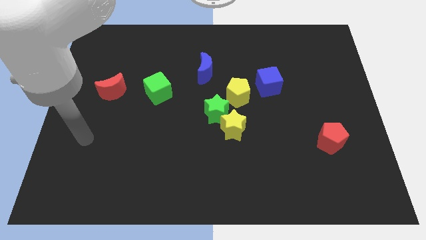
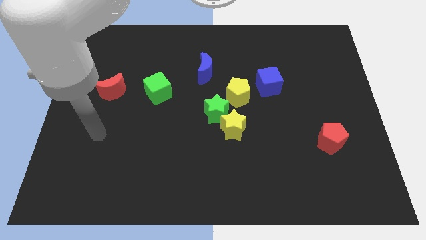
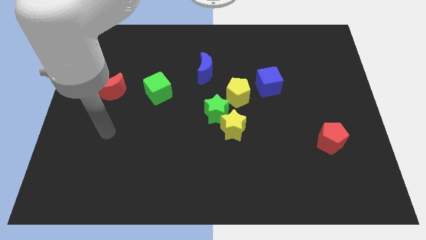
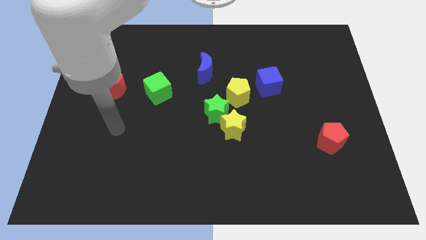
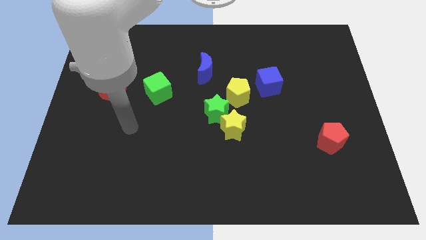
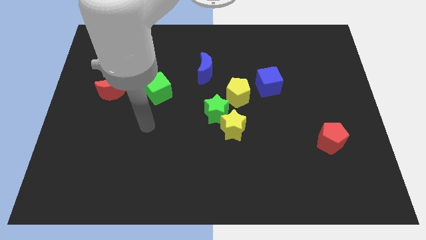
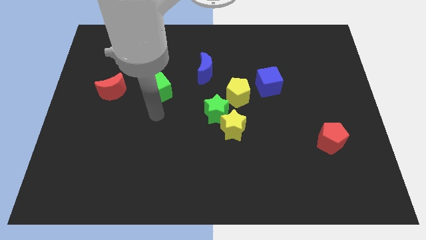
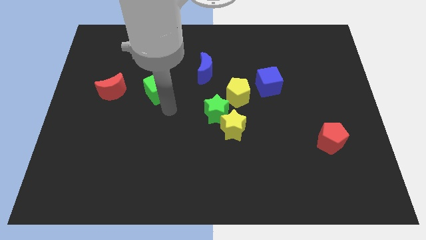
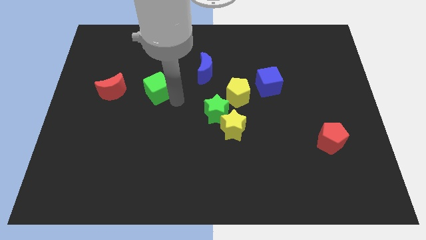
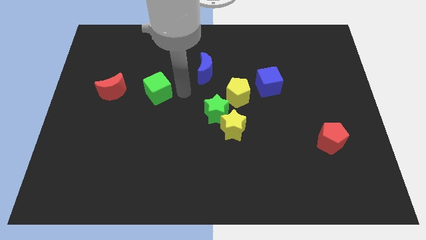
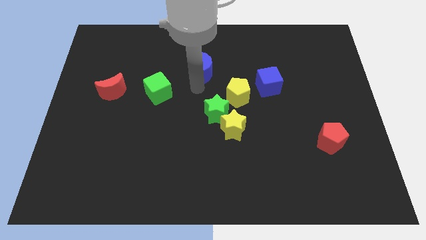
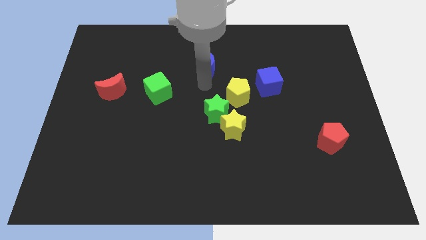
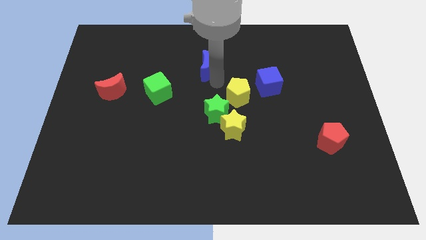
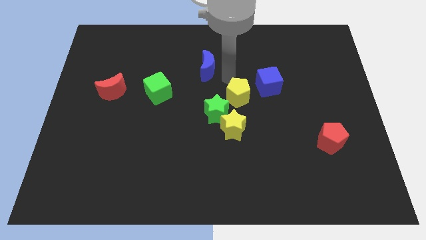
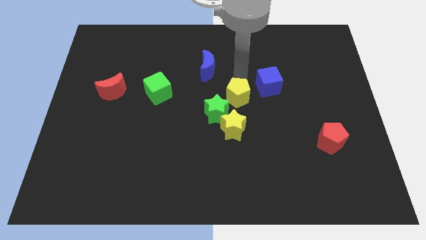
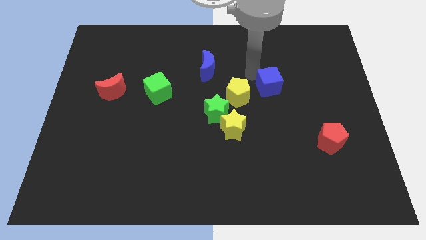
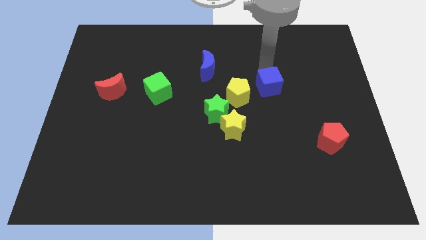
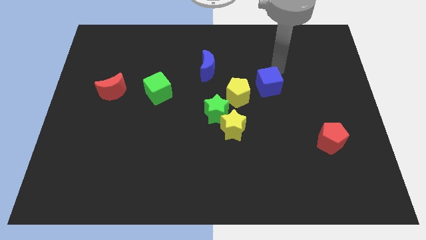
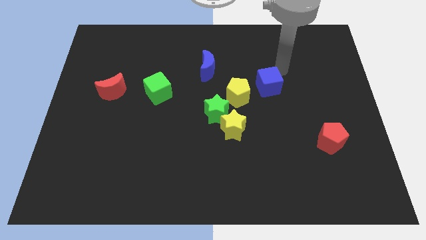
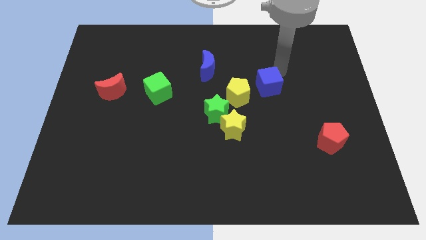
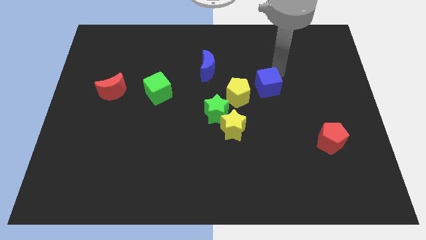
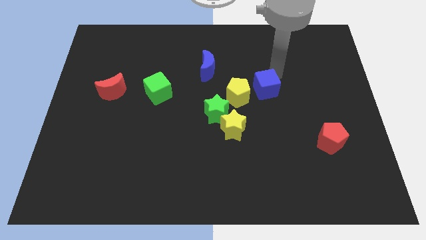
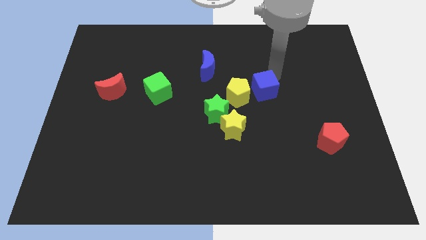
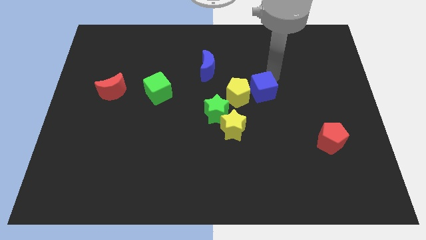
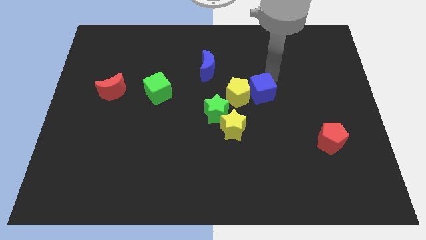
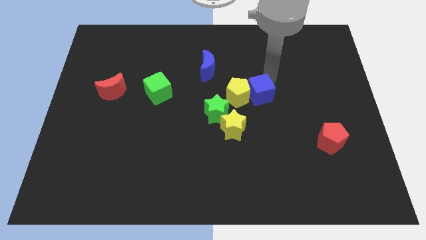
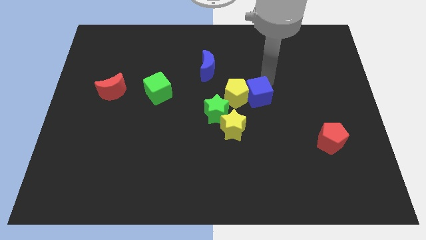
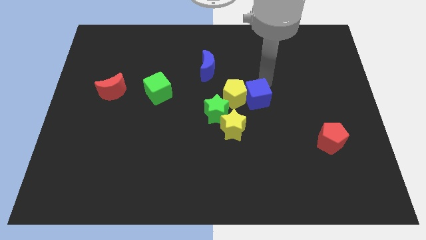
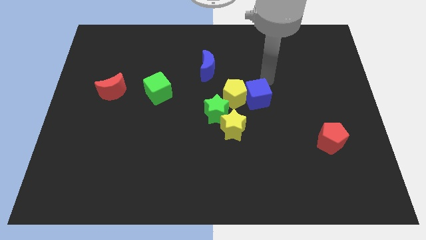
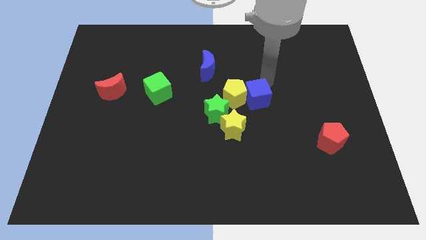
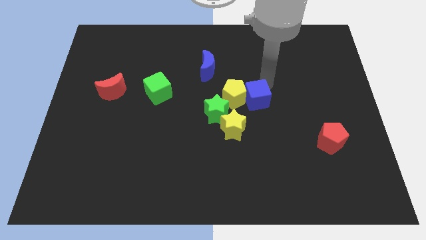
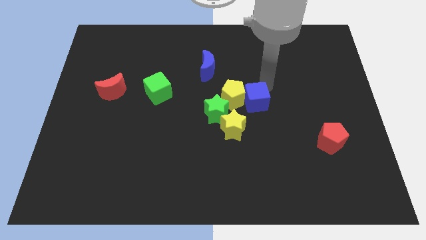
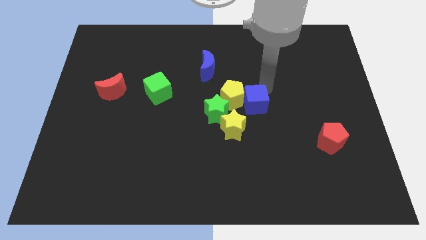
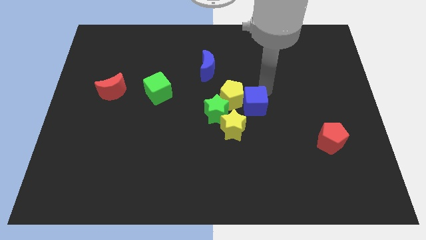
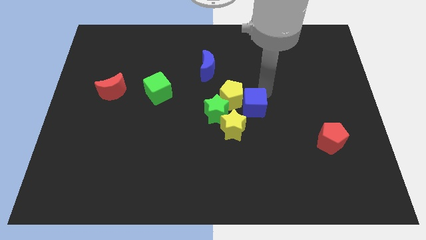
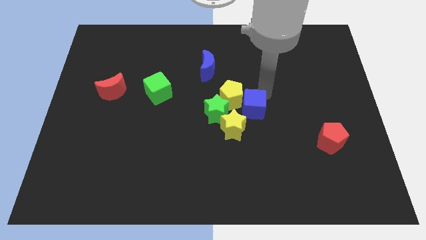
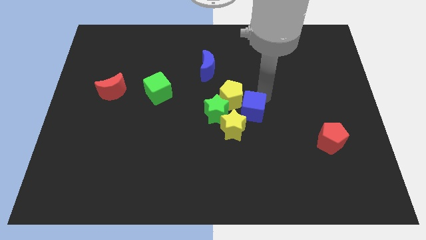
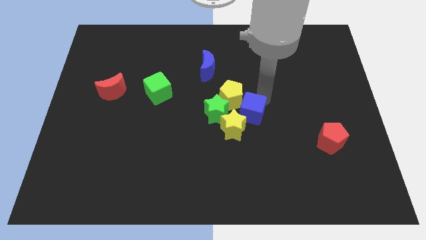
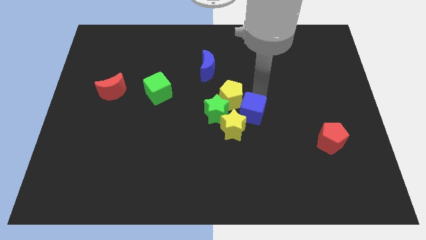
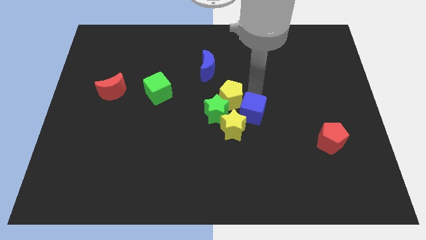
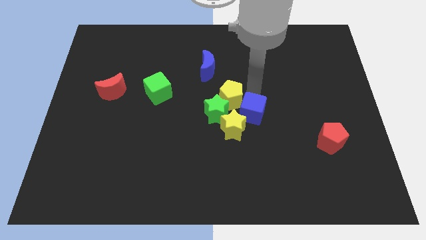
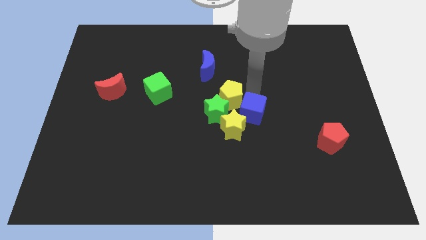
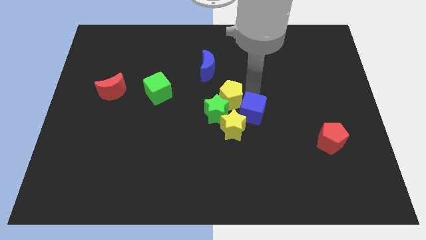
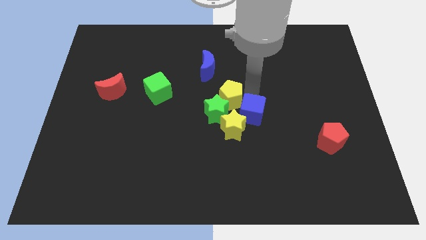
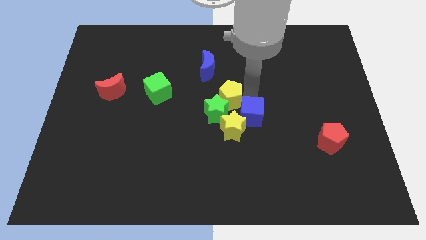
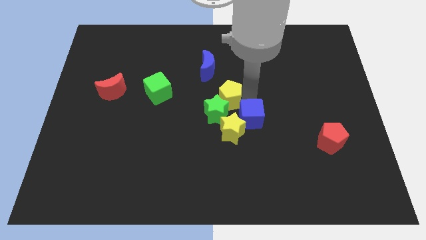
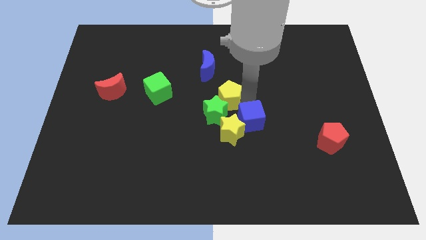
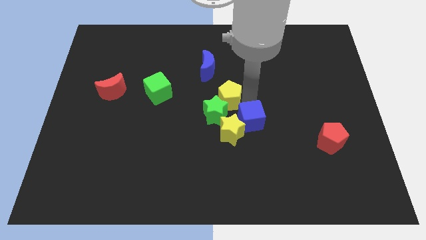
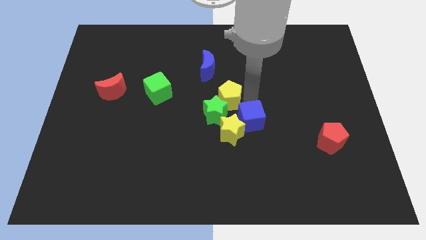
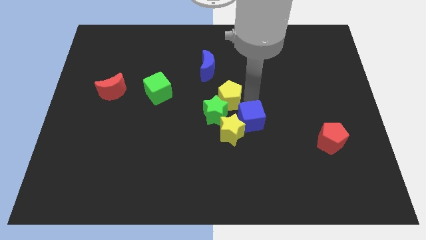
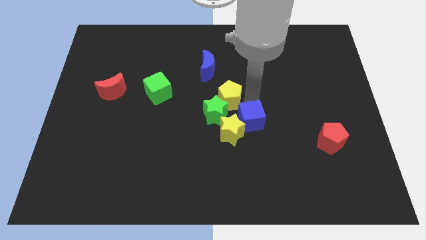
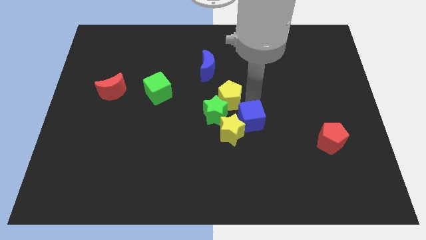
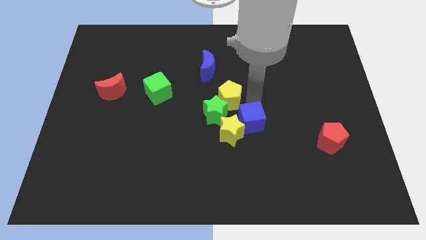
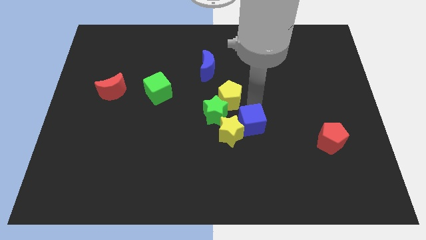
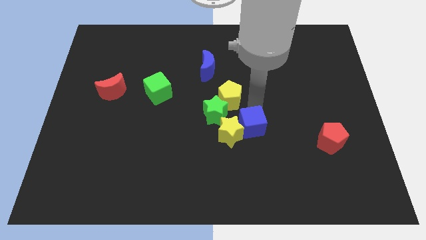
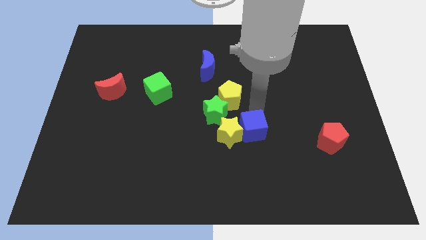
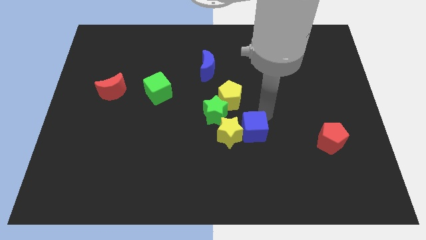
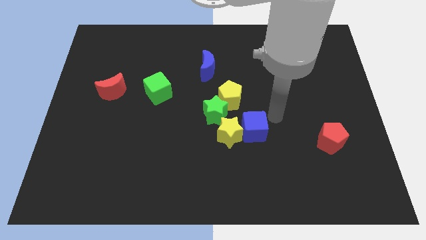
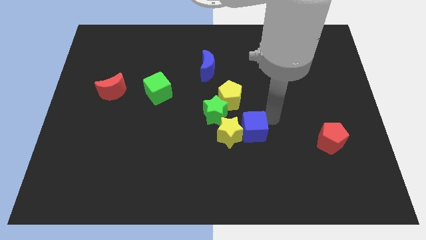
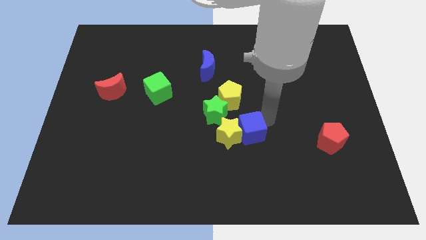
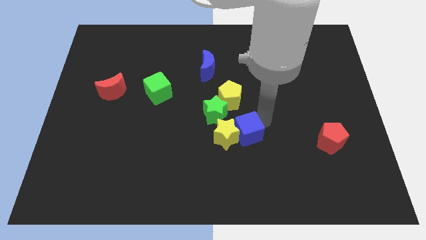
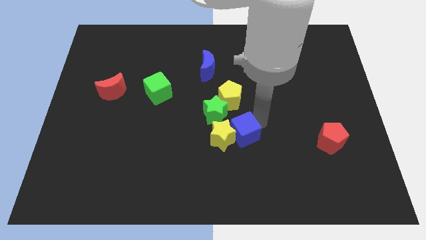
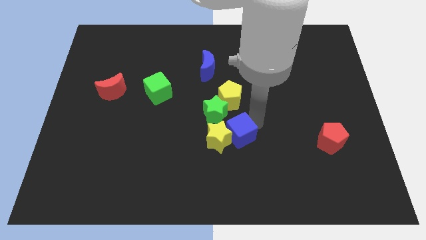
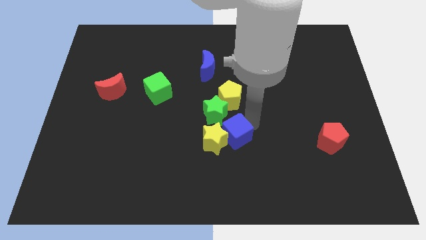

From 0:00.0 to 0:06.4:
slide the blue cube to the bottom of the green star

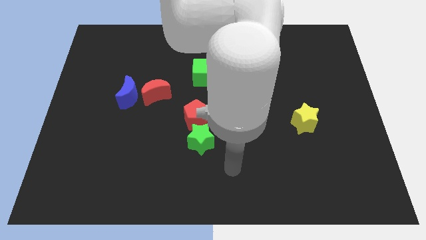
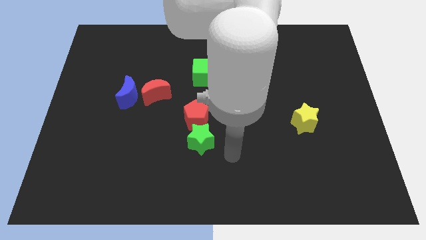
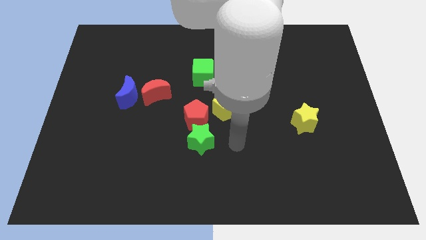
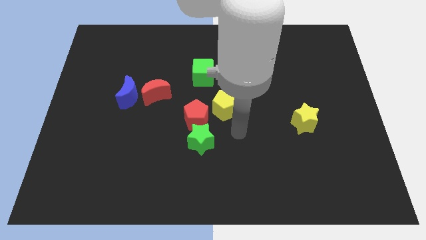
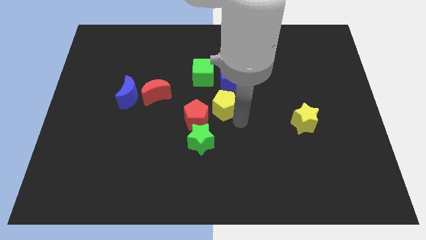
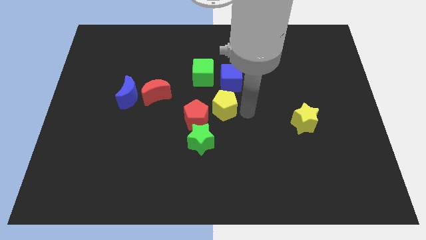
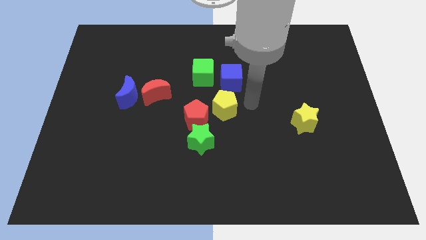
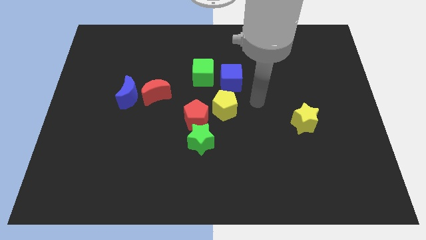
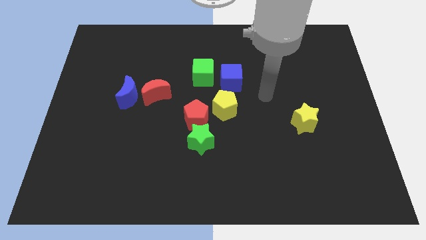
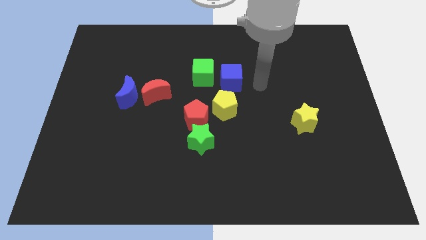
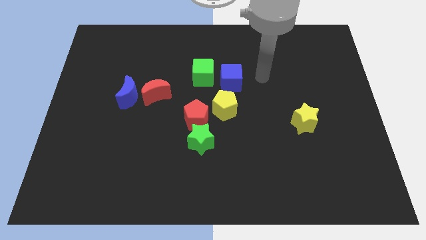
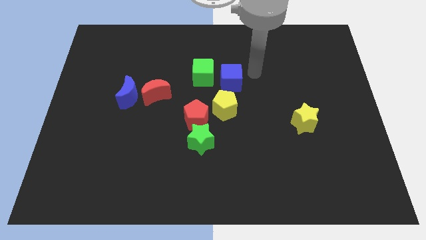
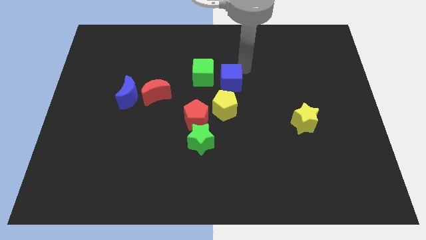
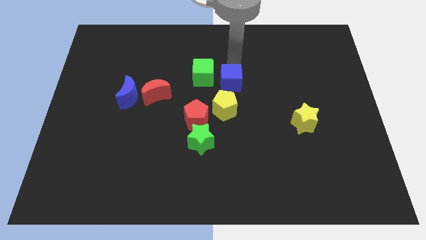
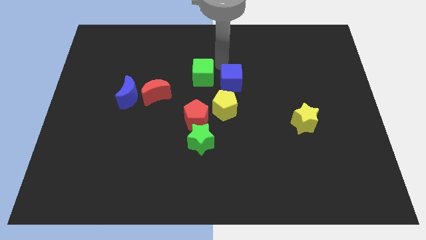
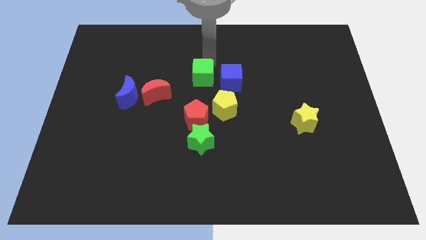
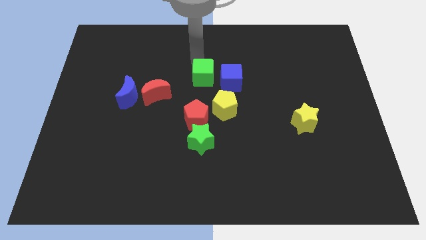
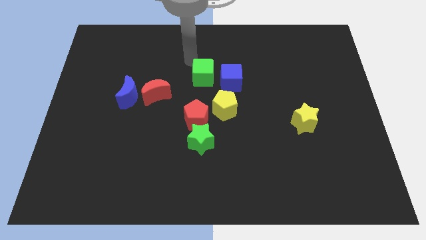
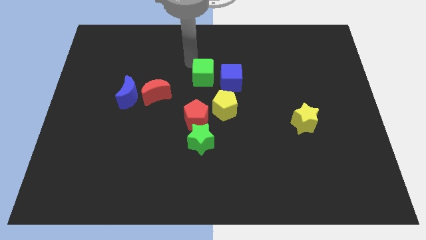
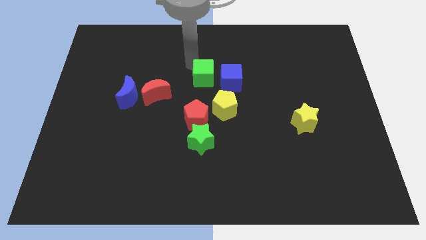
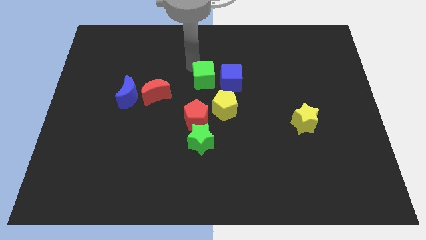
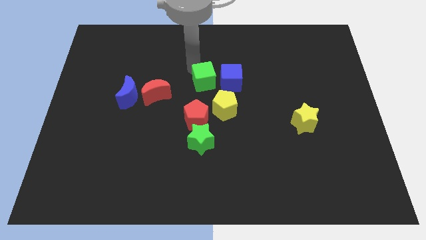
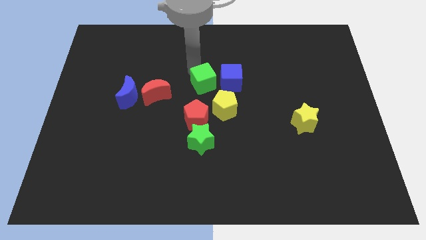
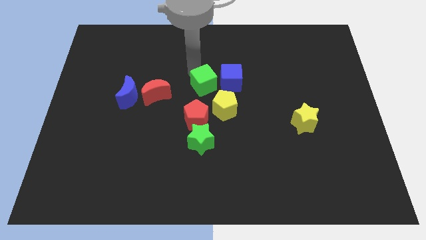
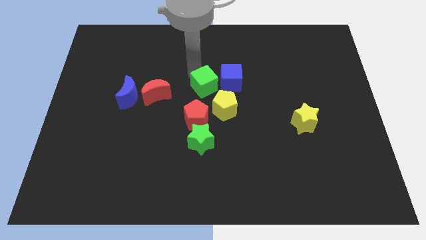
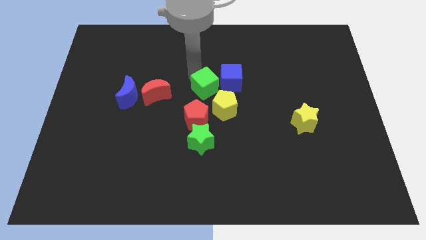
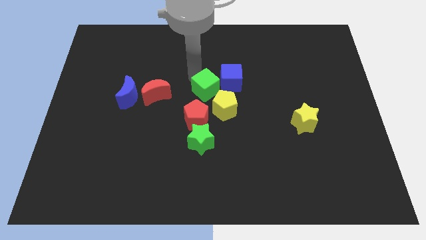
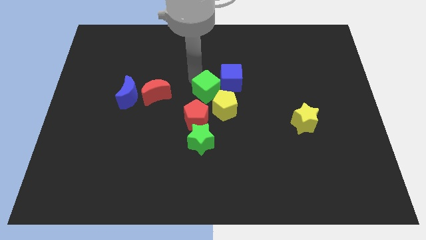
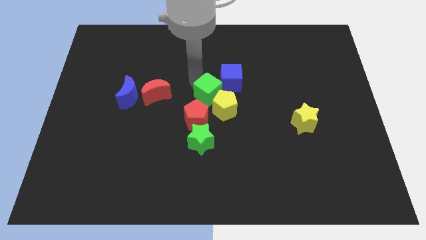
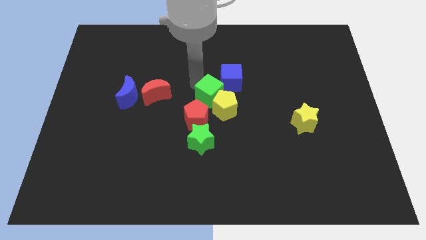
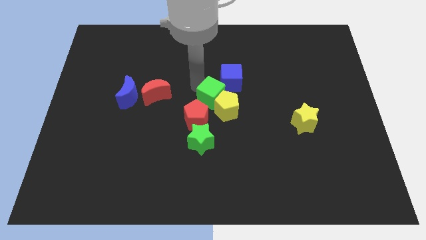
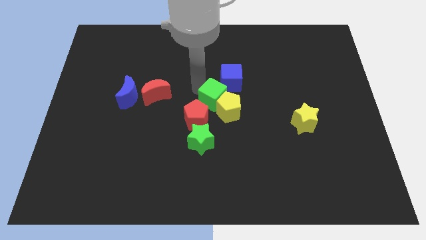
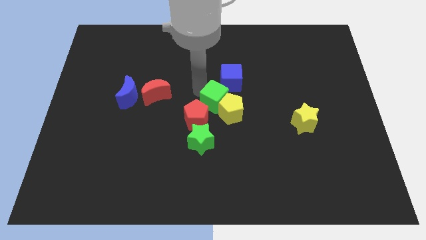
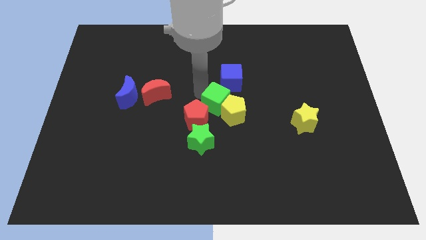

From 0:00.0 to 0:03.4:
put the green cube right of the red pentagon
